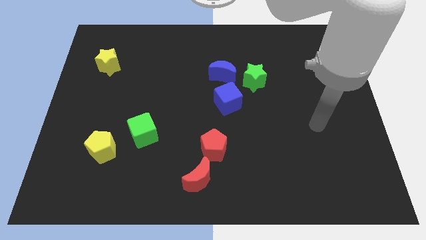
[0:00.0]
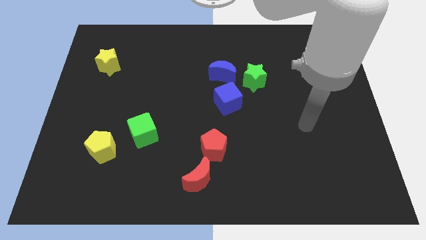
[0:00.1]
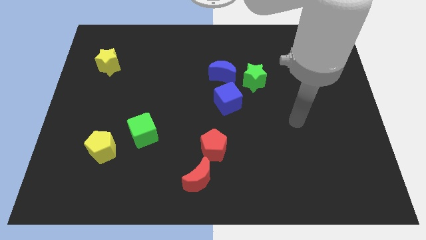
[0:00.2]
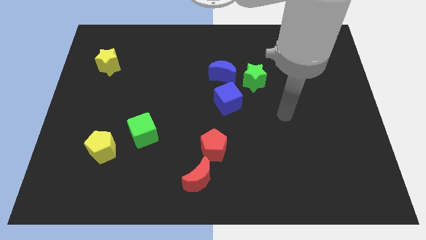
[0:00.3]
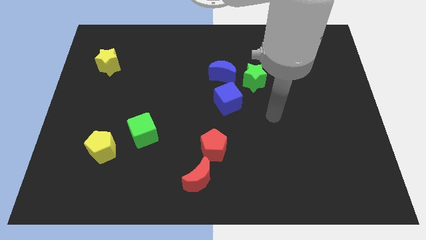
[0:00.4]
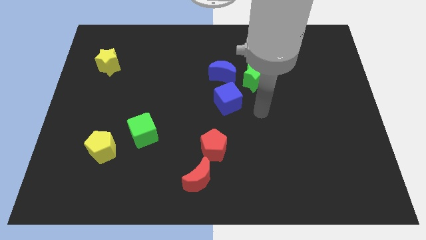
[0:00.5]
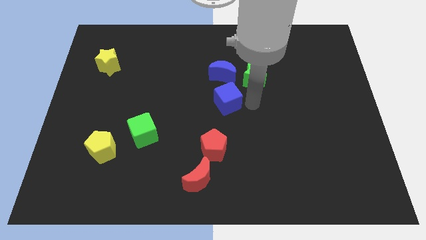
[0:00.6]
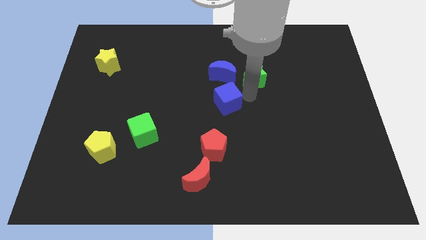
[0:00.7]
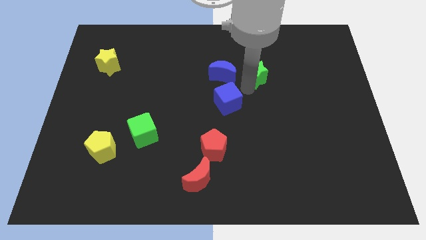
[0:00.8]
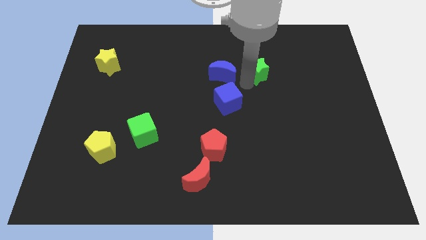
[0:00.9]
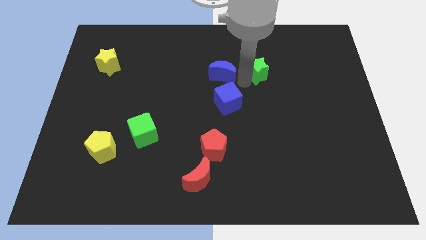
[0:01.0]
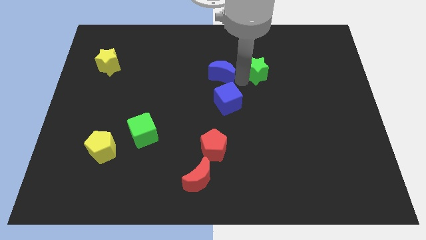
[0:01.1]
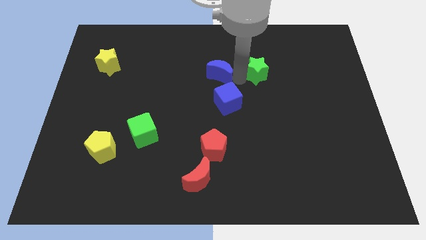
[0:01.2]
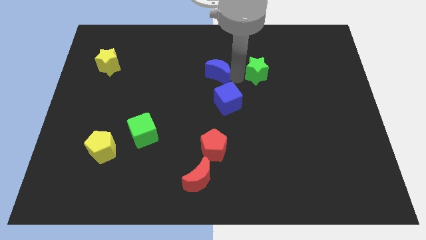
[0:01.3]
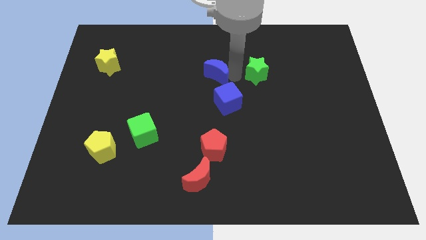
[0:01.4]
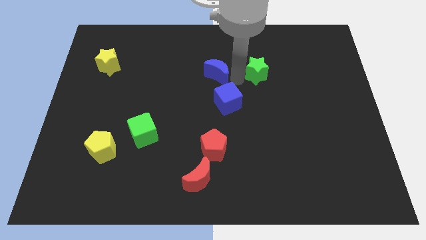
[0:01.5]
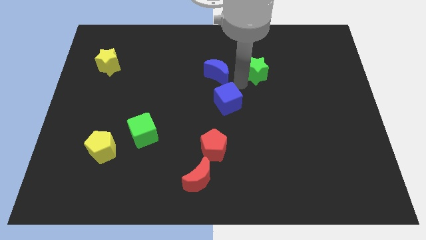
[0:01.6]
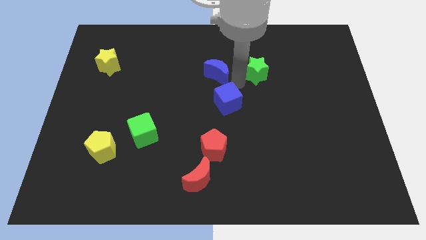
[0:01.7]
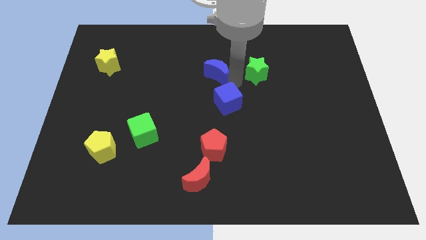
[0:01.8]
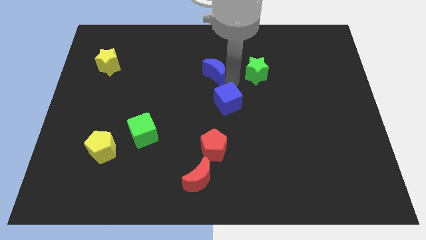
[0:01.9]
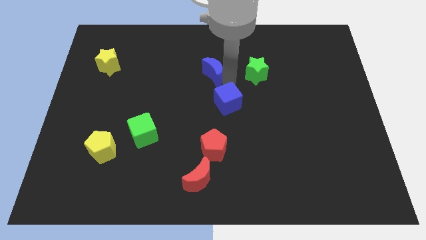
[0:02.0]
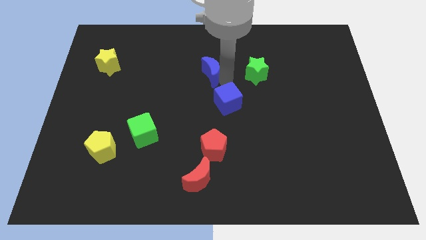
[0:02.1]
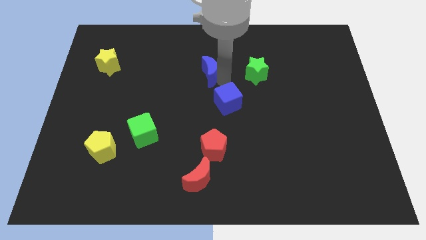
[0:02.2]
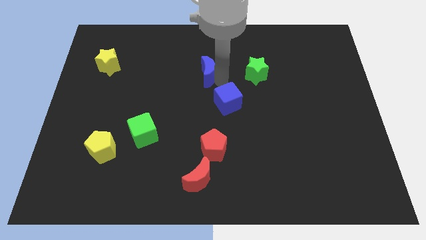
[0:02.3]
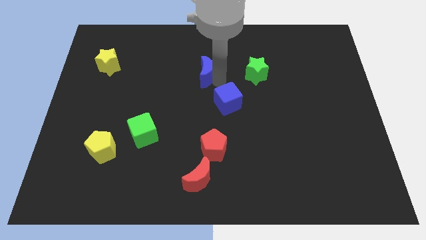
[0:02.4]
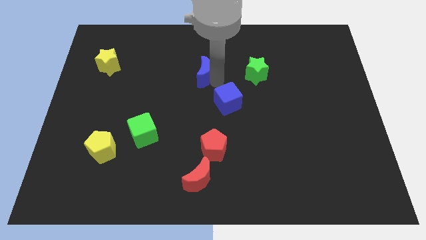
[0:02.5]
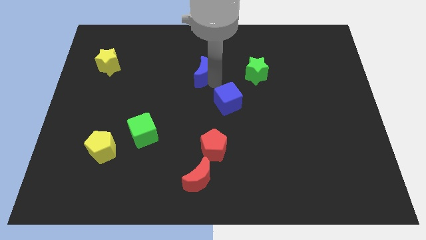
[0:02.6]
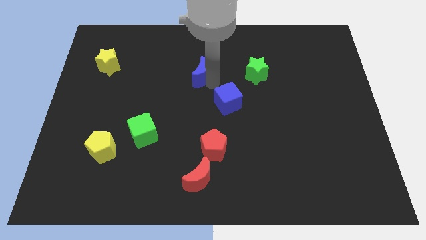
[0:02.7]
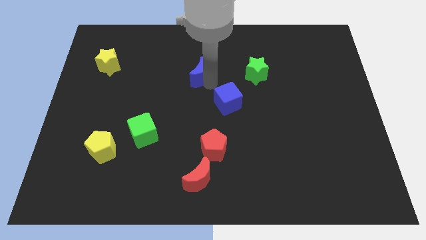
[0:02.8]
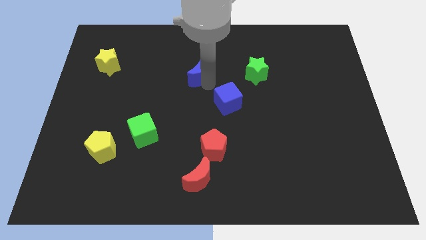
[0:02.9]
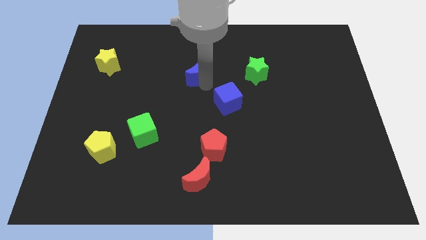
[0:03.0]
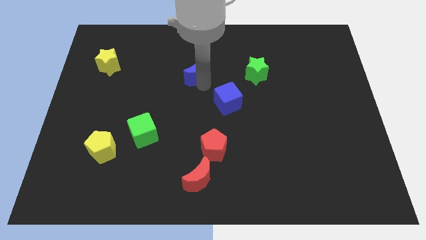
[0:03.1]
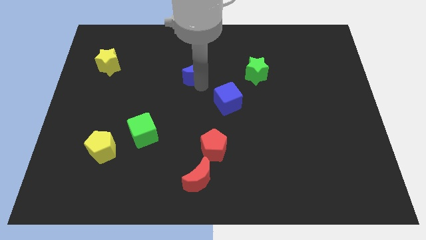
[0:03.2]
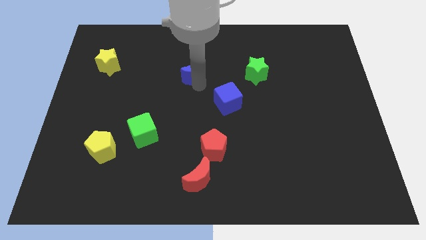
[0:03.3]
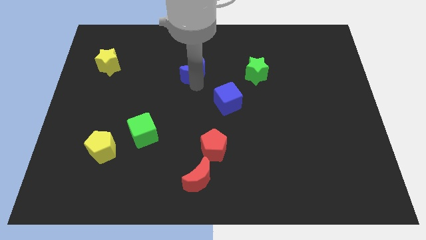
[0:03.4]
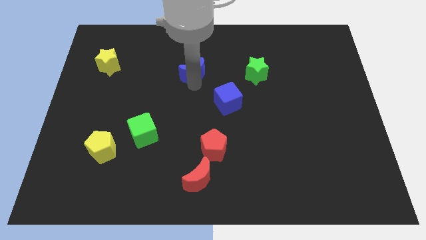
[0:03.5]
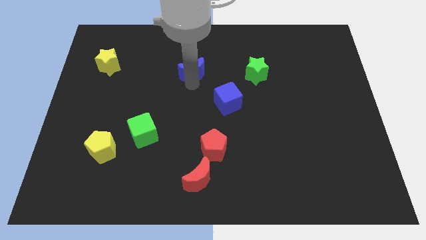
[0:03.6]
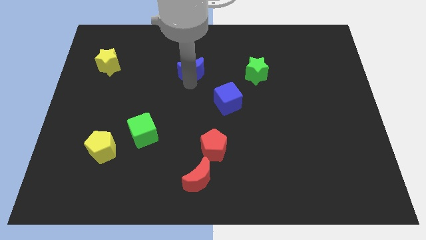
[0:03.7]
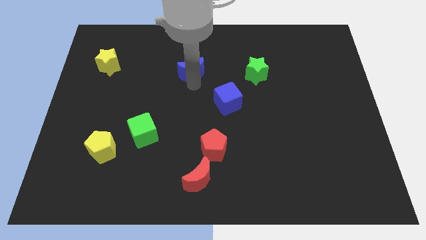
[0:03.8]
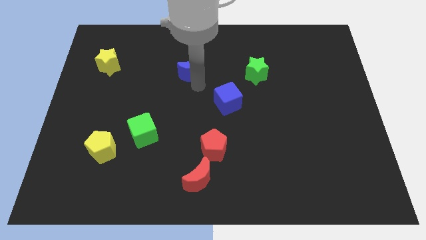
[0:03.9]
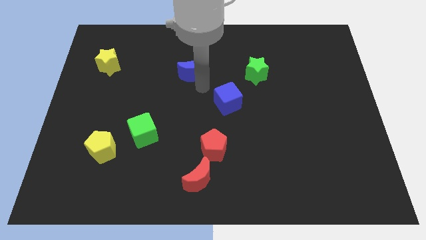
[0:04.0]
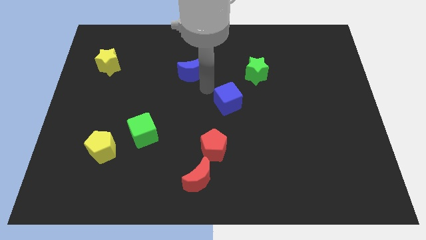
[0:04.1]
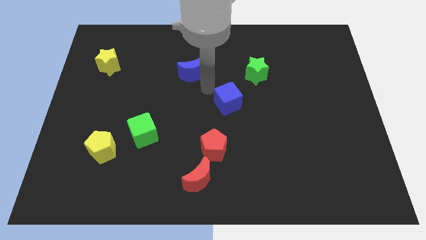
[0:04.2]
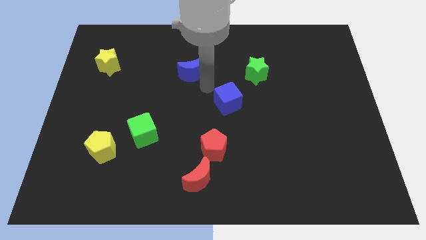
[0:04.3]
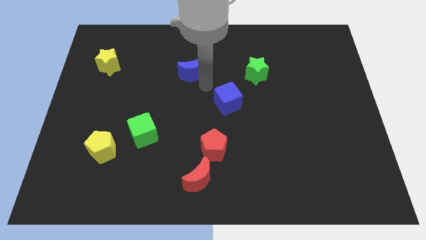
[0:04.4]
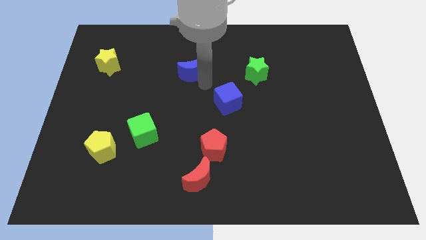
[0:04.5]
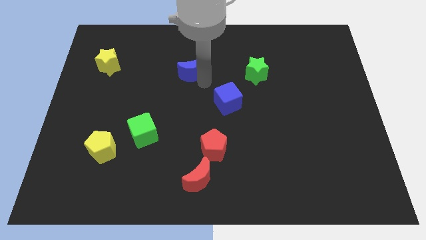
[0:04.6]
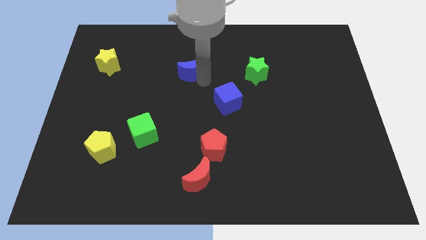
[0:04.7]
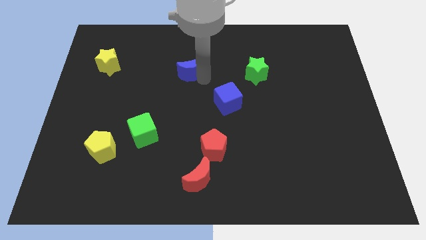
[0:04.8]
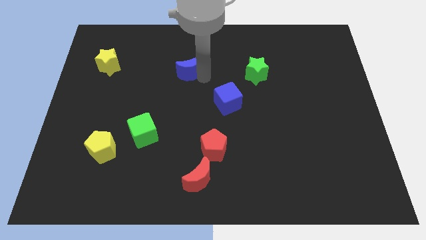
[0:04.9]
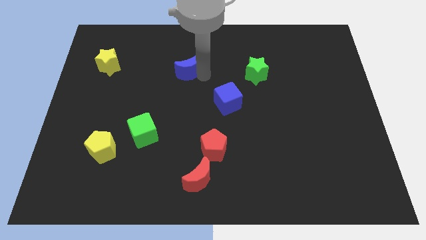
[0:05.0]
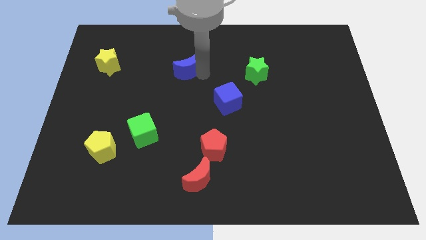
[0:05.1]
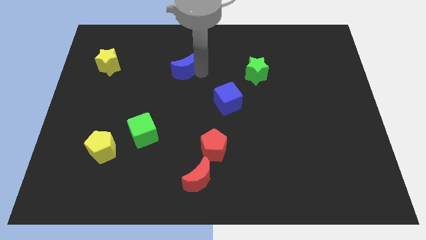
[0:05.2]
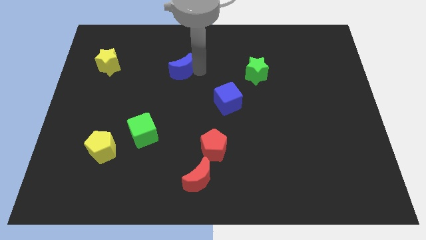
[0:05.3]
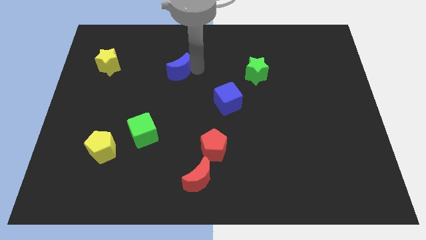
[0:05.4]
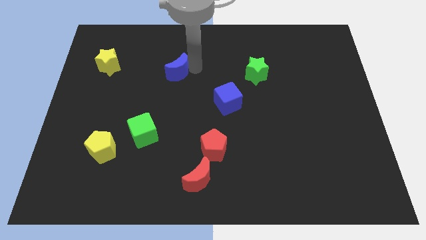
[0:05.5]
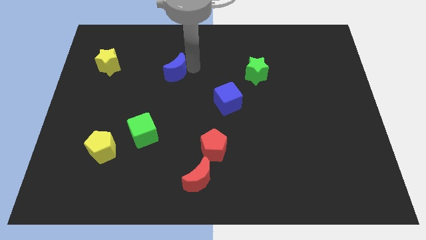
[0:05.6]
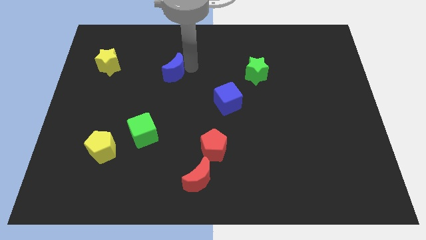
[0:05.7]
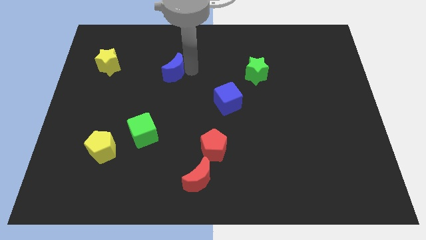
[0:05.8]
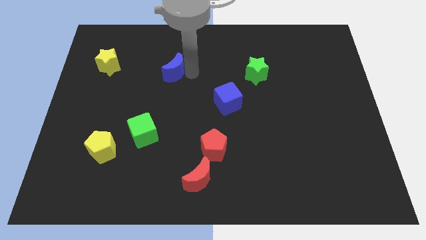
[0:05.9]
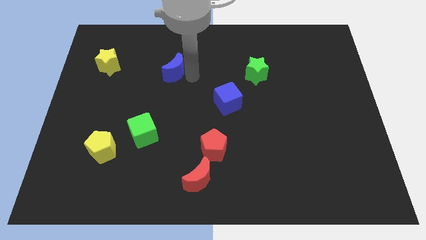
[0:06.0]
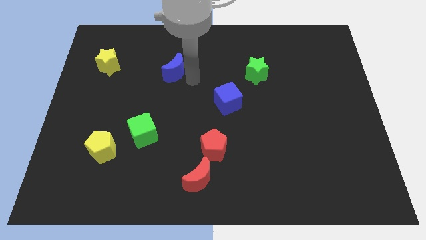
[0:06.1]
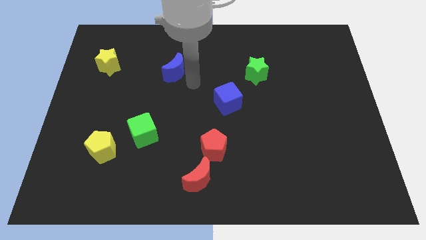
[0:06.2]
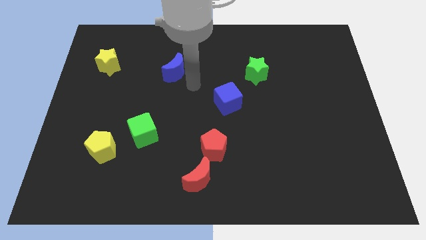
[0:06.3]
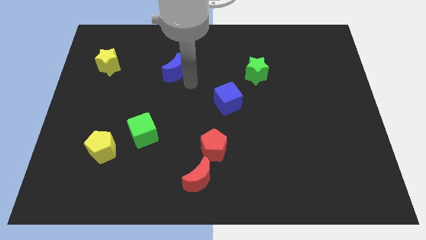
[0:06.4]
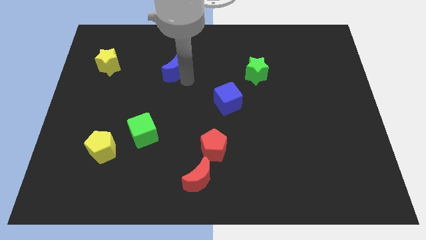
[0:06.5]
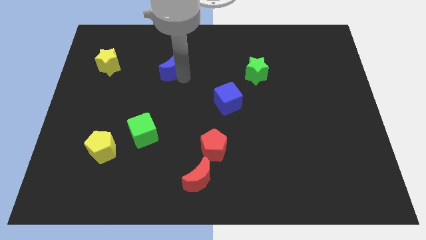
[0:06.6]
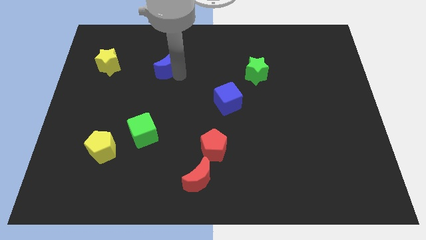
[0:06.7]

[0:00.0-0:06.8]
move the blue moon right of the yellow star
